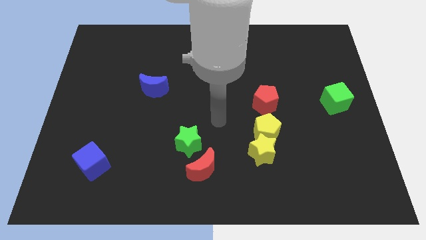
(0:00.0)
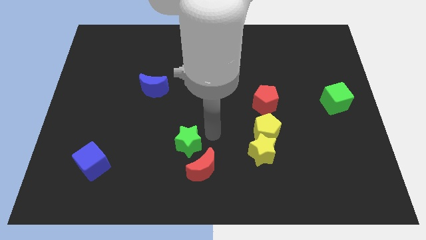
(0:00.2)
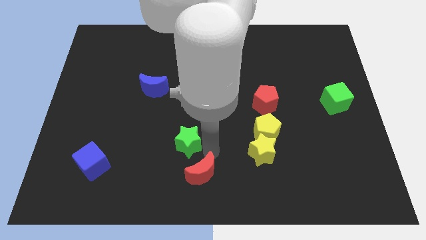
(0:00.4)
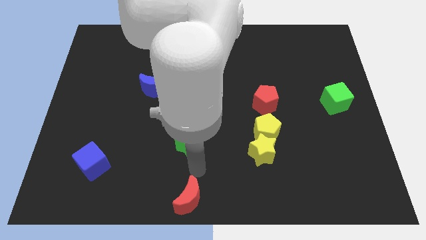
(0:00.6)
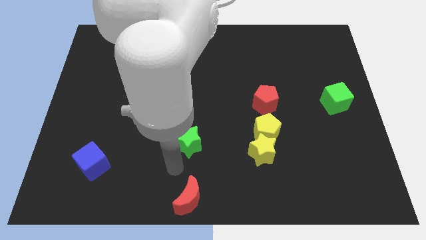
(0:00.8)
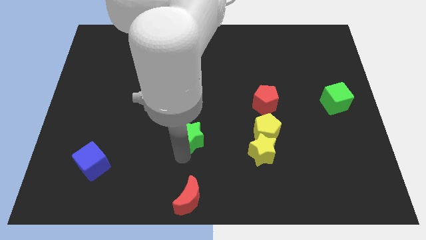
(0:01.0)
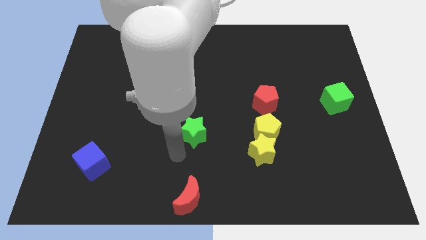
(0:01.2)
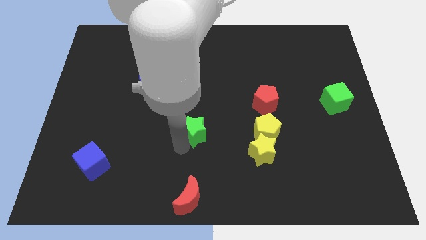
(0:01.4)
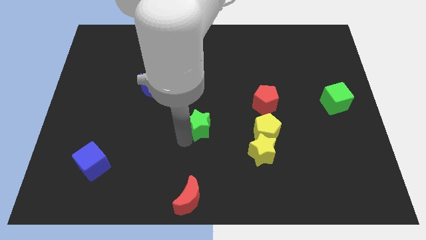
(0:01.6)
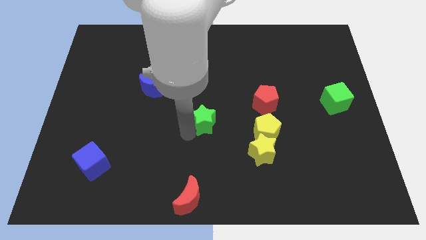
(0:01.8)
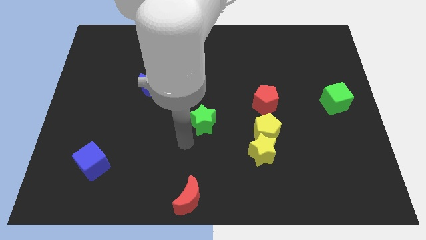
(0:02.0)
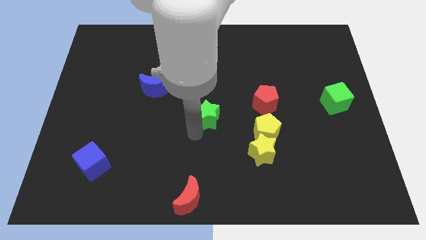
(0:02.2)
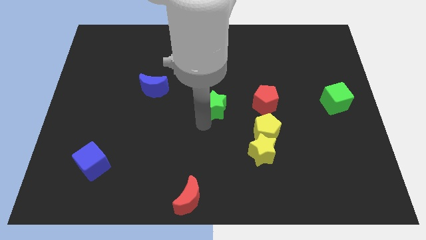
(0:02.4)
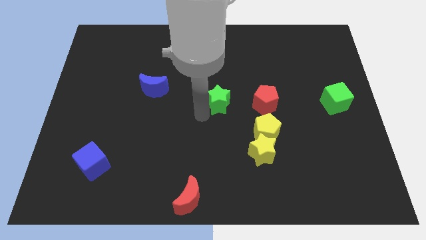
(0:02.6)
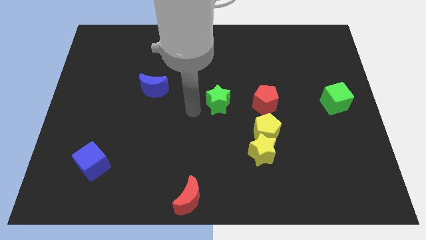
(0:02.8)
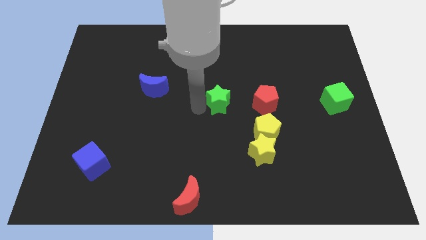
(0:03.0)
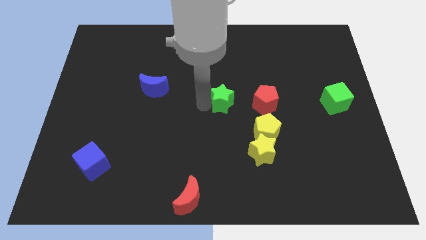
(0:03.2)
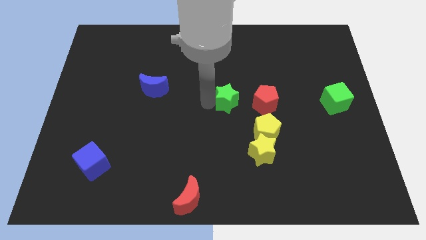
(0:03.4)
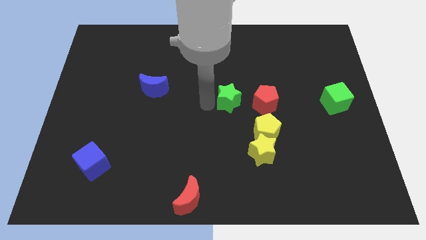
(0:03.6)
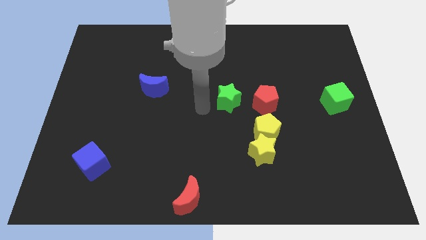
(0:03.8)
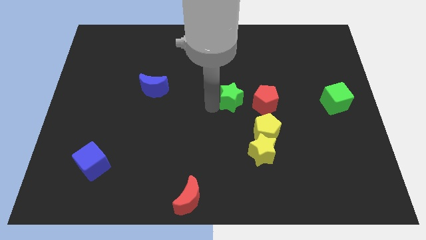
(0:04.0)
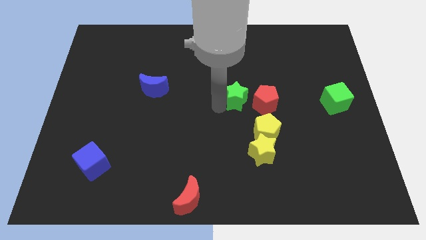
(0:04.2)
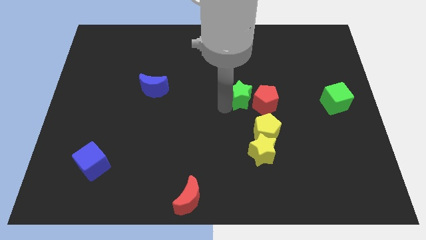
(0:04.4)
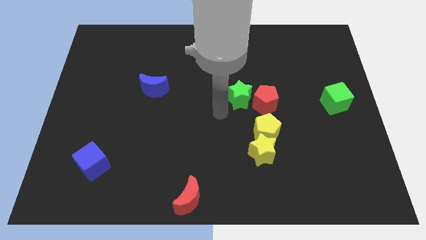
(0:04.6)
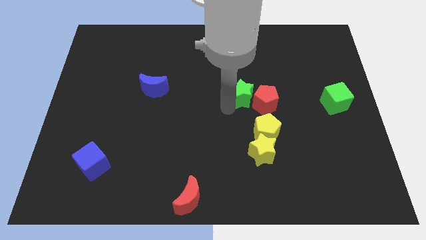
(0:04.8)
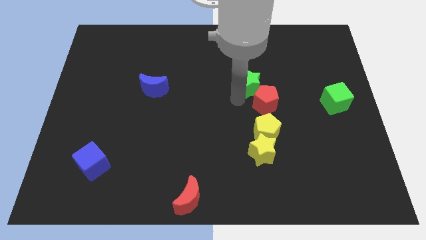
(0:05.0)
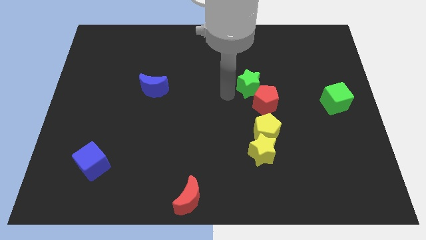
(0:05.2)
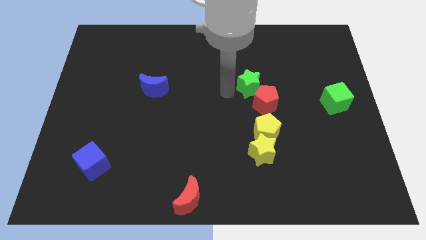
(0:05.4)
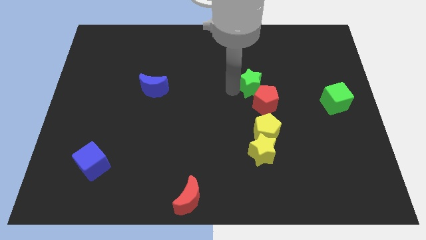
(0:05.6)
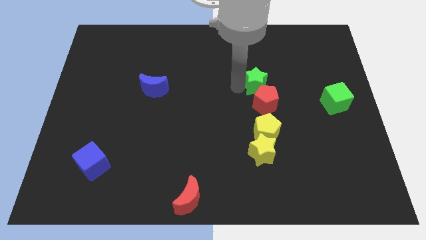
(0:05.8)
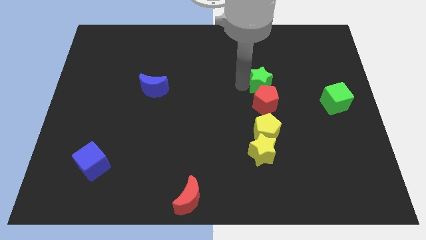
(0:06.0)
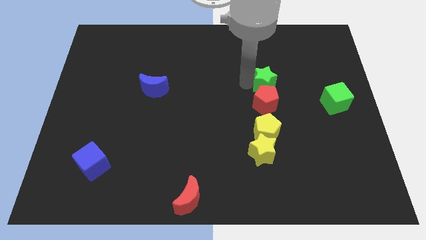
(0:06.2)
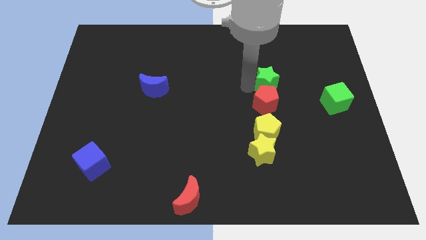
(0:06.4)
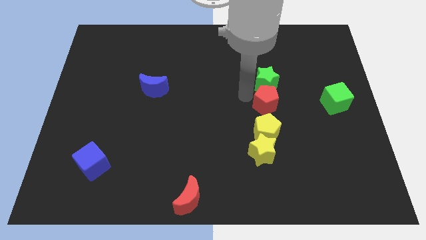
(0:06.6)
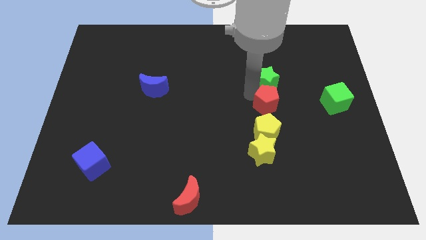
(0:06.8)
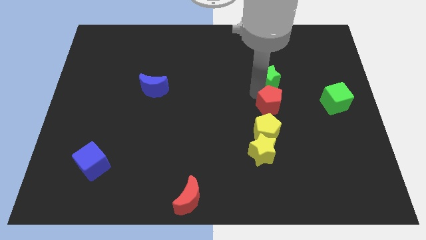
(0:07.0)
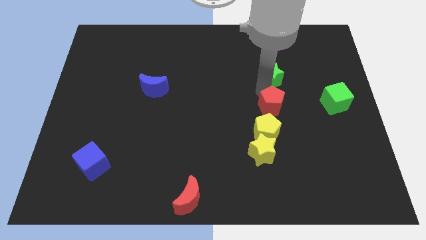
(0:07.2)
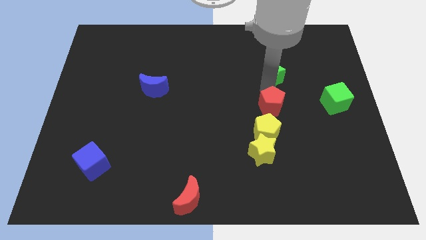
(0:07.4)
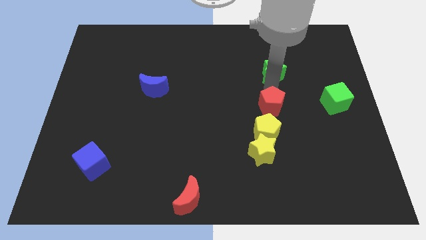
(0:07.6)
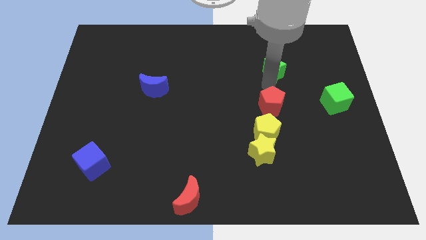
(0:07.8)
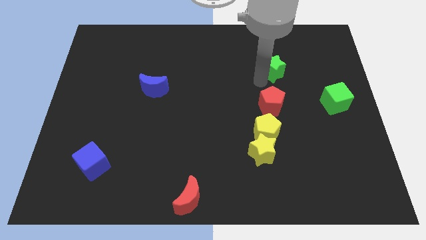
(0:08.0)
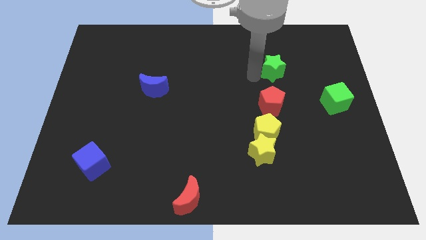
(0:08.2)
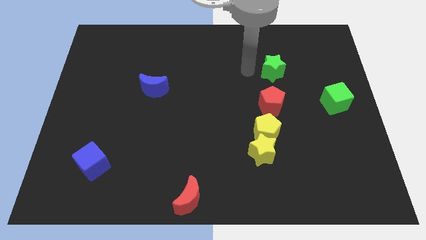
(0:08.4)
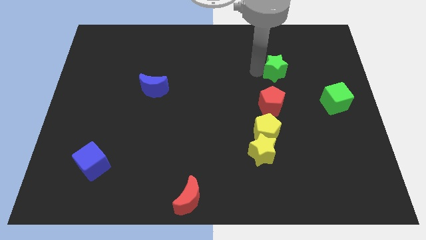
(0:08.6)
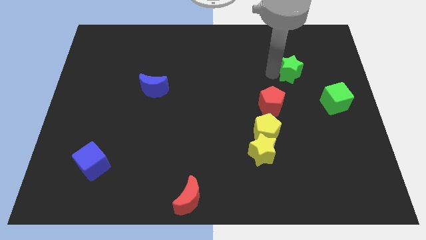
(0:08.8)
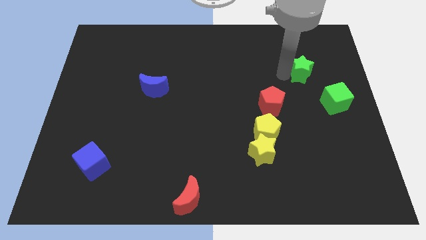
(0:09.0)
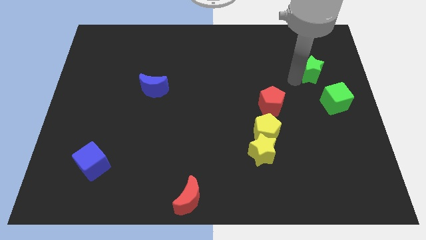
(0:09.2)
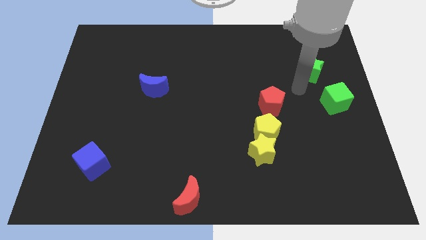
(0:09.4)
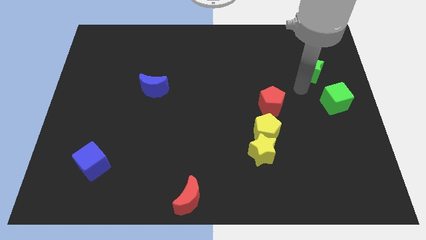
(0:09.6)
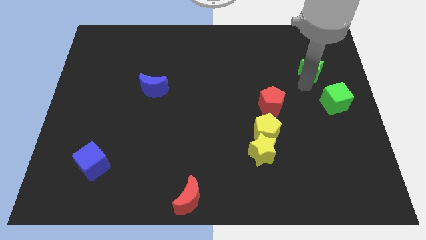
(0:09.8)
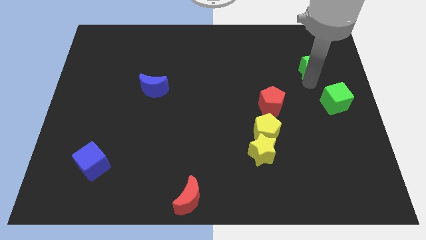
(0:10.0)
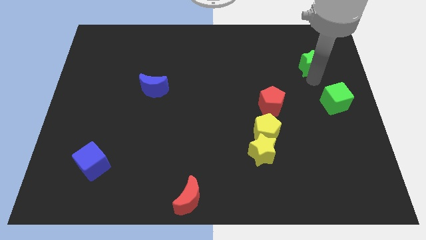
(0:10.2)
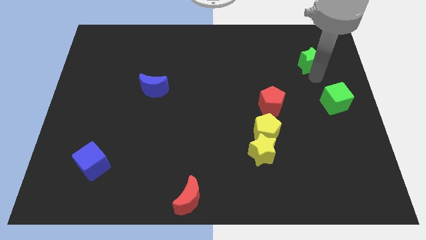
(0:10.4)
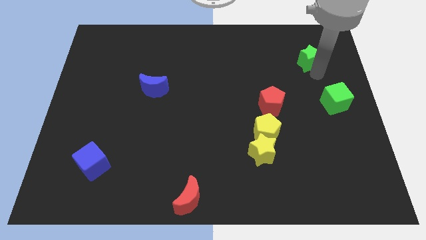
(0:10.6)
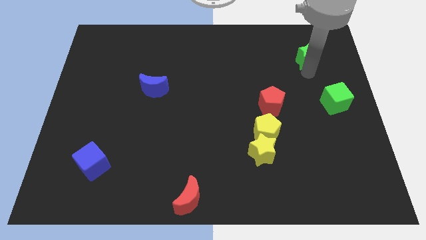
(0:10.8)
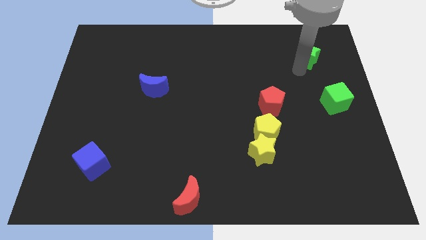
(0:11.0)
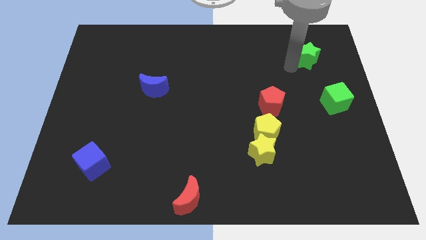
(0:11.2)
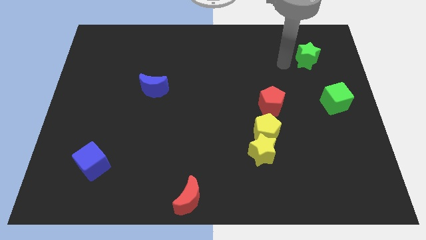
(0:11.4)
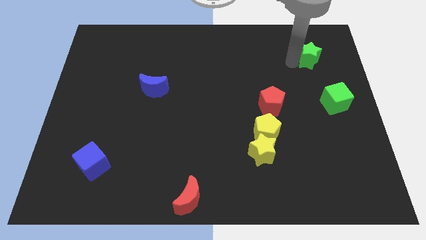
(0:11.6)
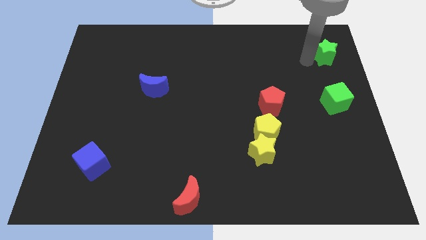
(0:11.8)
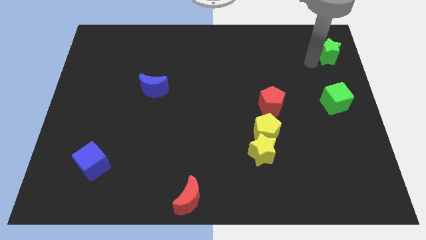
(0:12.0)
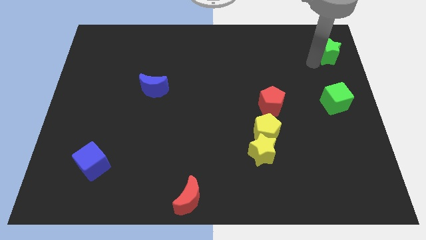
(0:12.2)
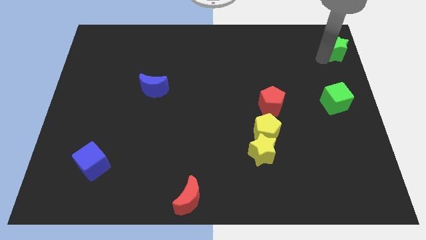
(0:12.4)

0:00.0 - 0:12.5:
put the green star to the top right corner

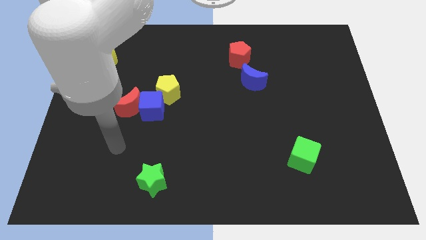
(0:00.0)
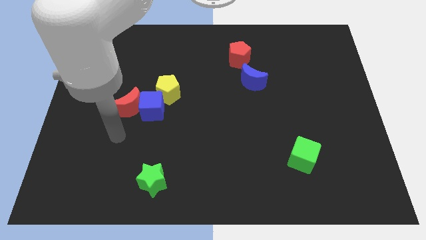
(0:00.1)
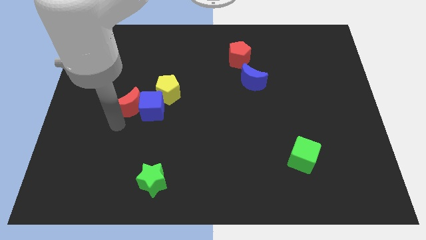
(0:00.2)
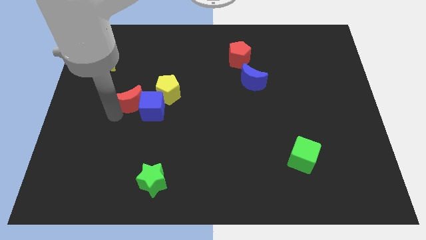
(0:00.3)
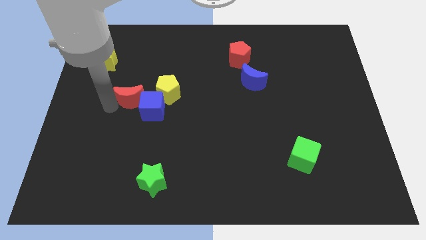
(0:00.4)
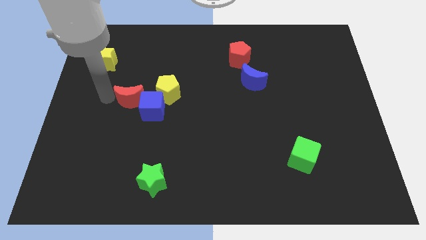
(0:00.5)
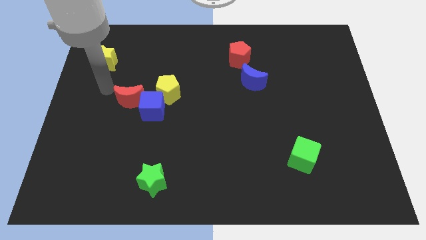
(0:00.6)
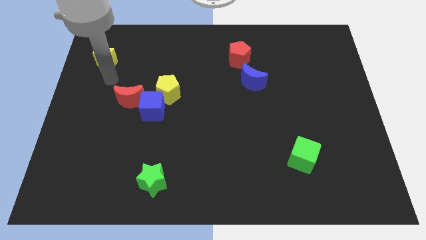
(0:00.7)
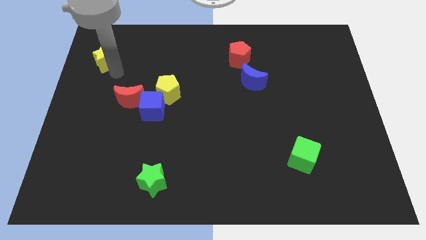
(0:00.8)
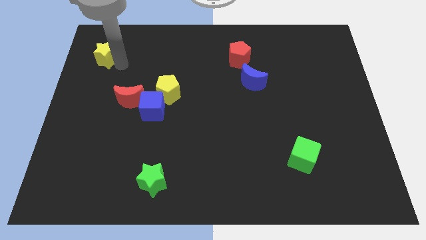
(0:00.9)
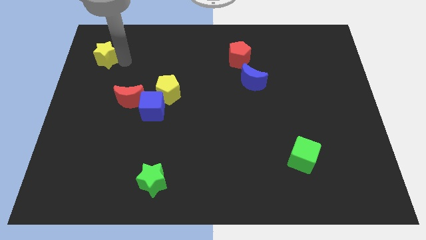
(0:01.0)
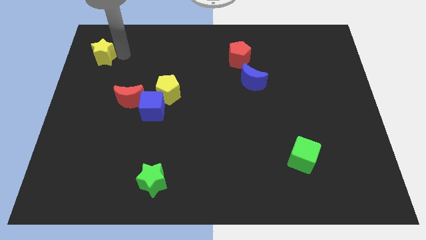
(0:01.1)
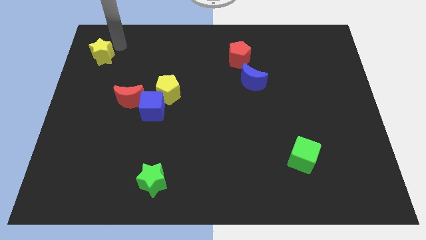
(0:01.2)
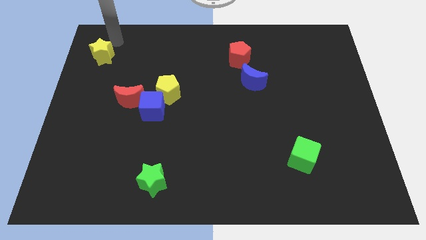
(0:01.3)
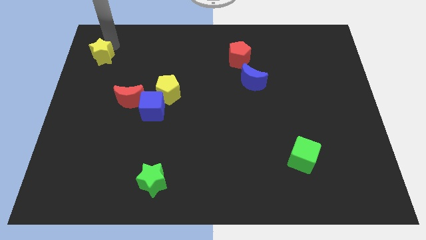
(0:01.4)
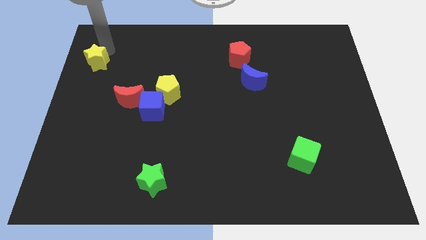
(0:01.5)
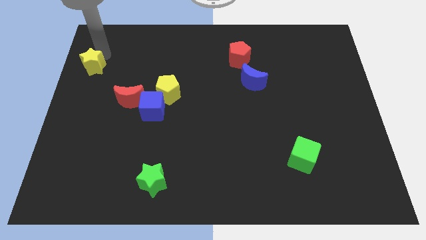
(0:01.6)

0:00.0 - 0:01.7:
move the yellow star to the center left
